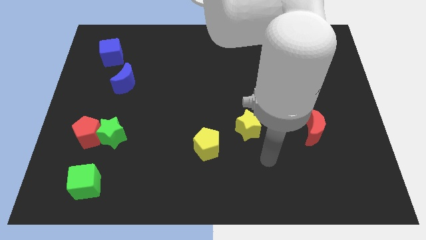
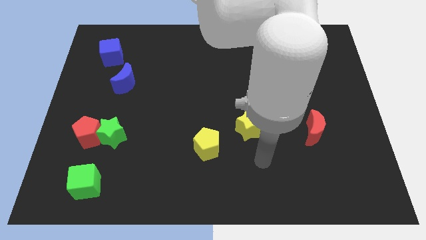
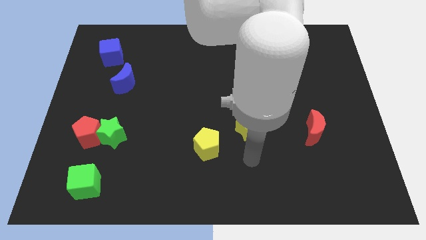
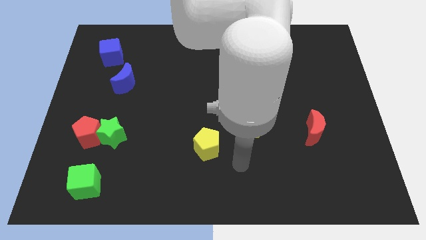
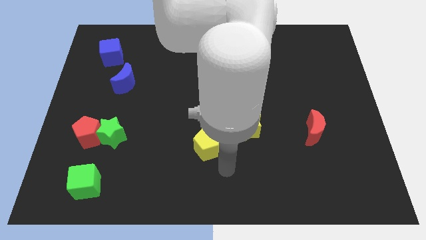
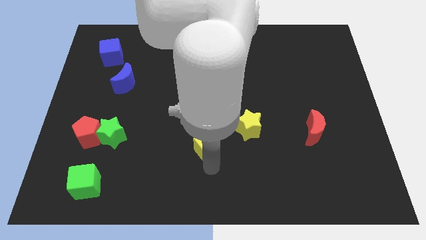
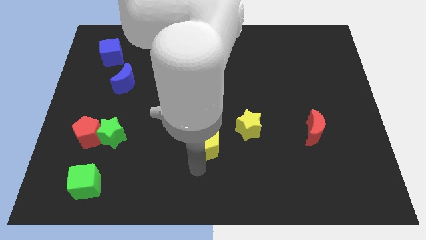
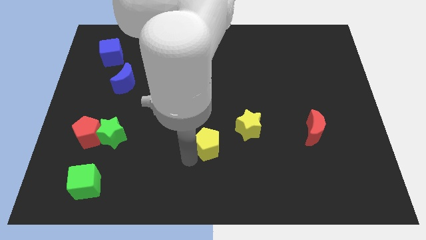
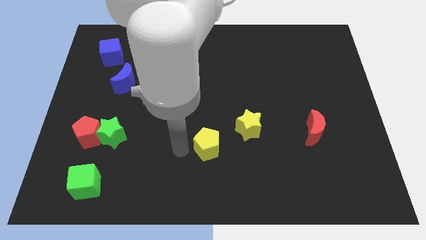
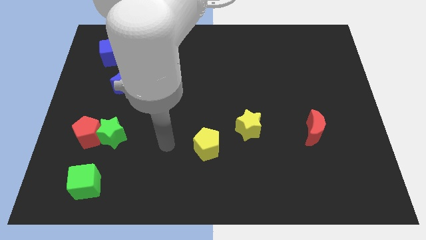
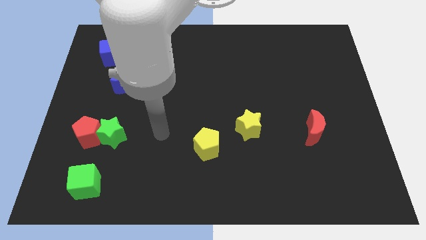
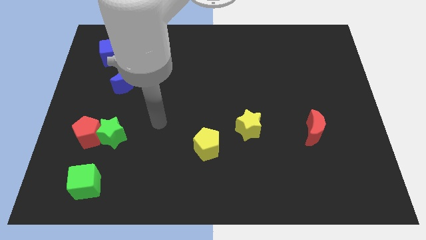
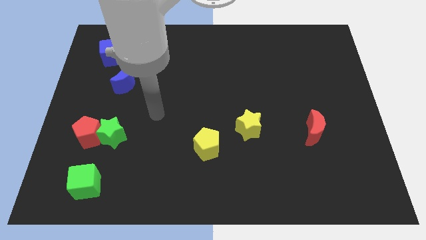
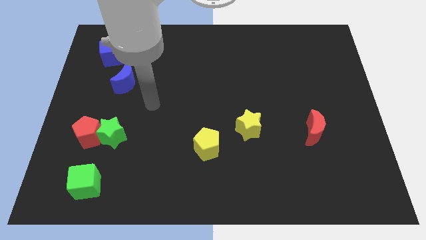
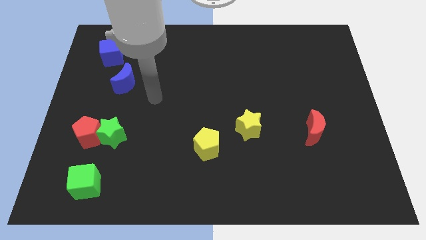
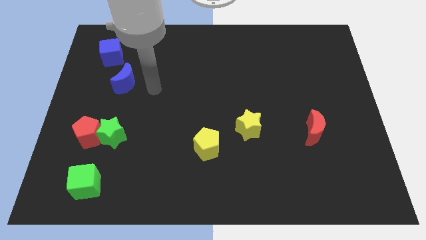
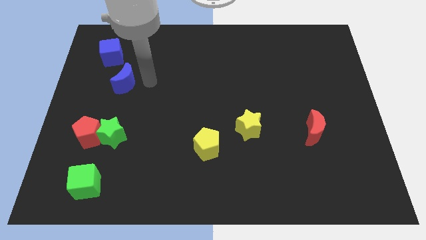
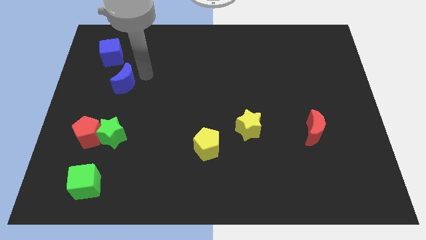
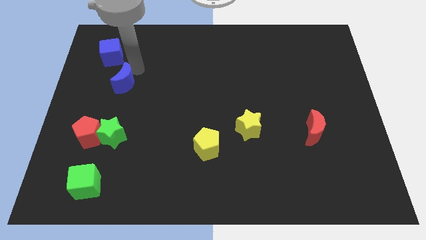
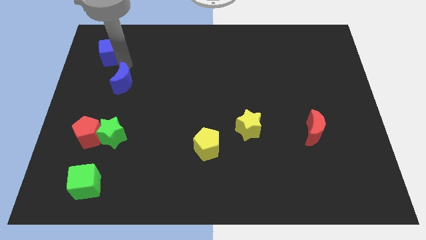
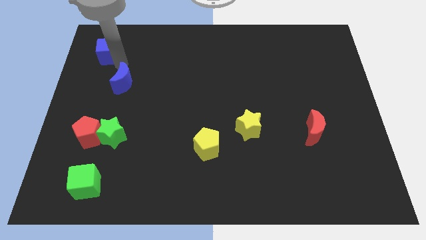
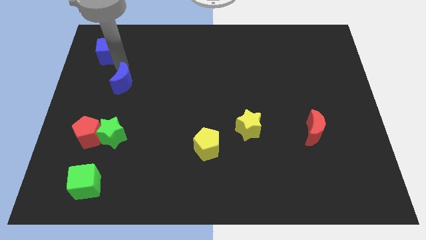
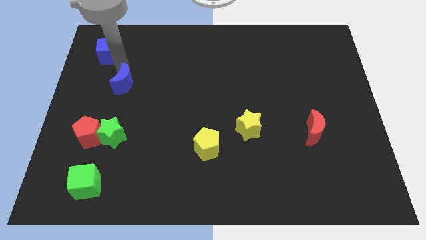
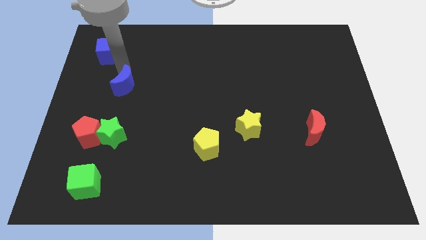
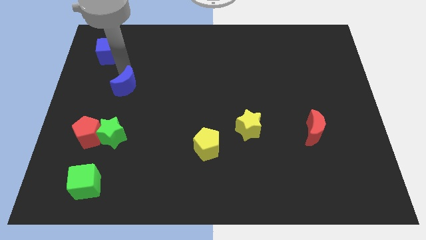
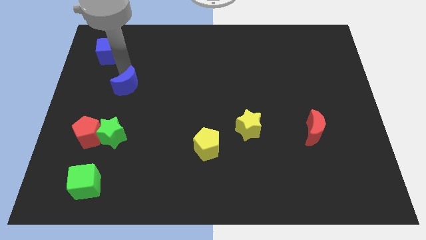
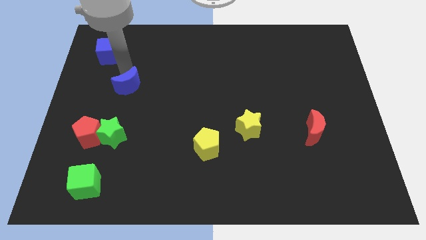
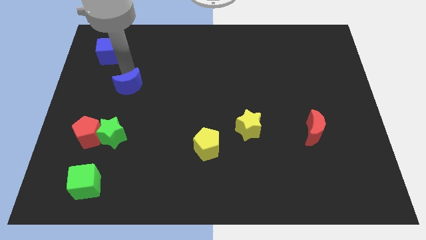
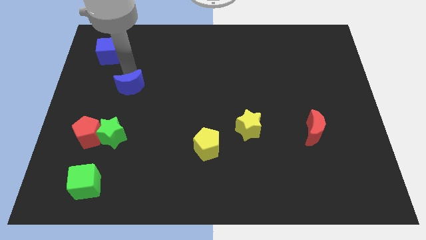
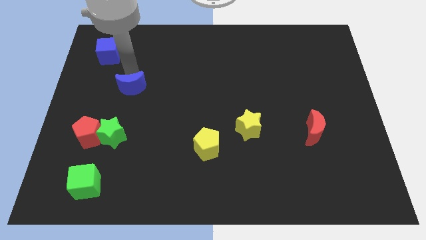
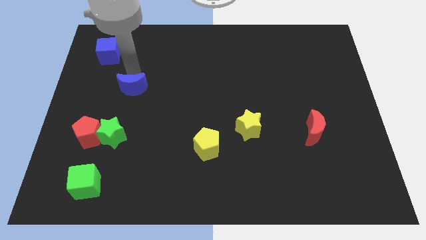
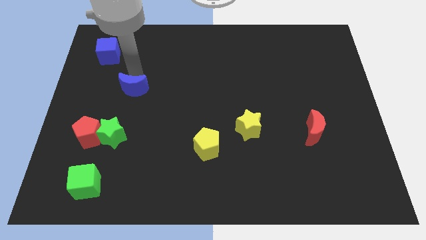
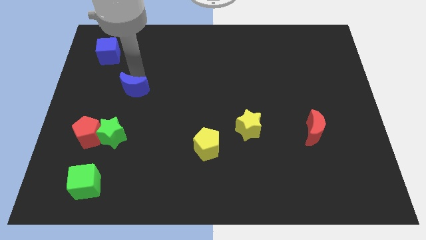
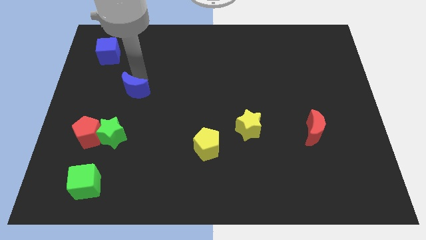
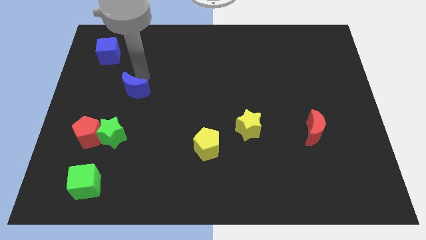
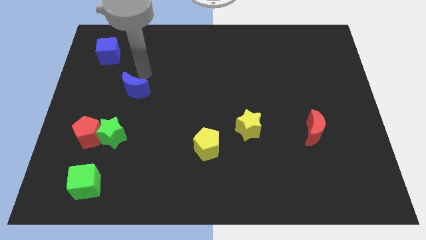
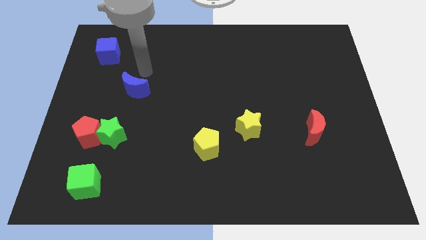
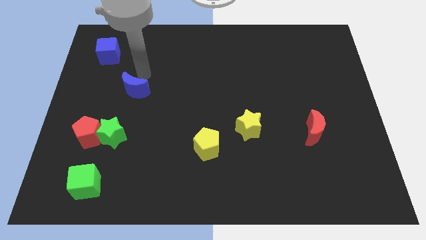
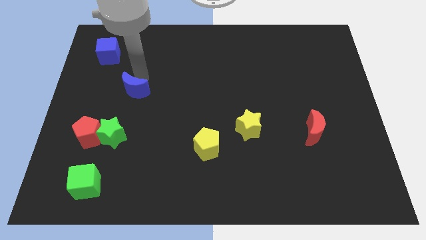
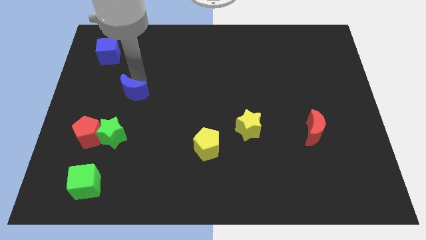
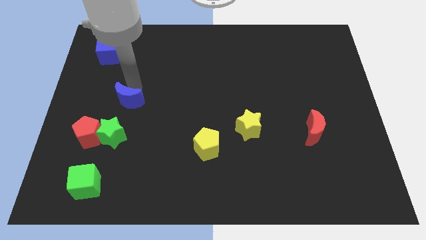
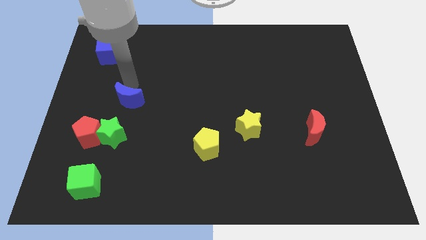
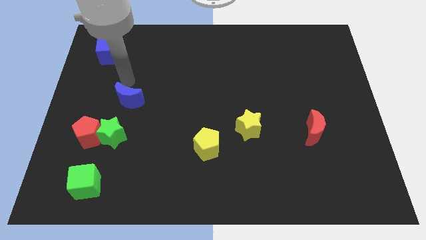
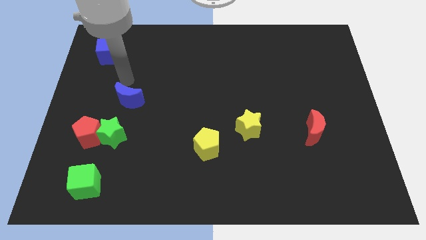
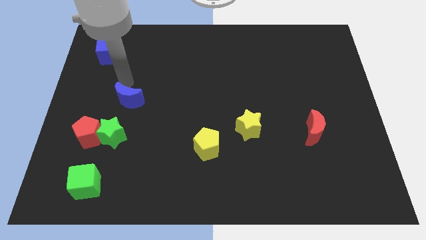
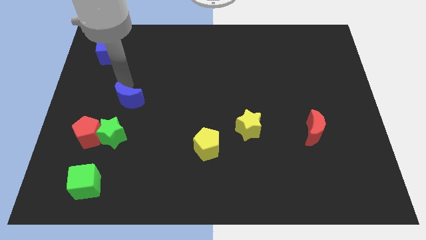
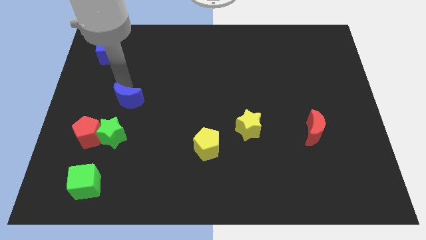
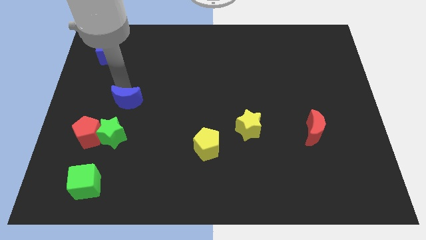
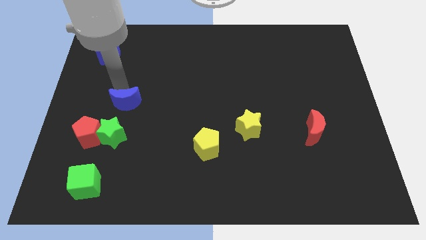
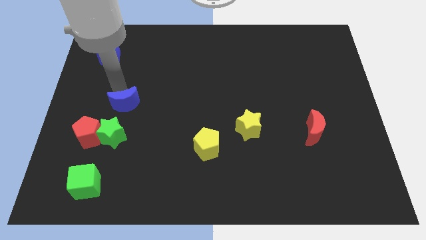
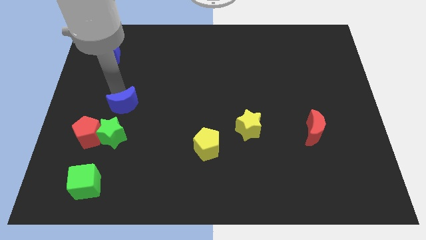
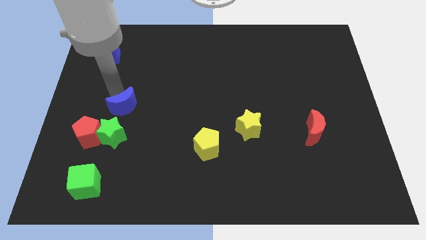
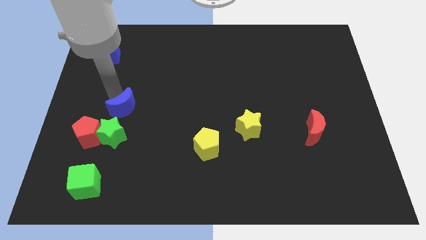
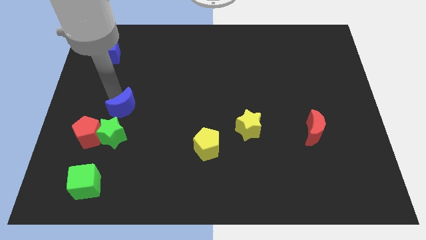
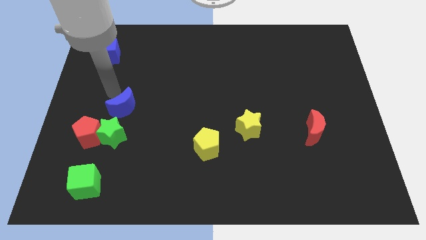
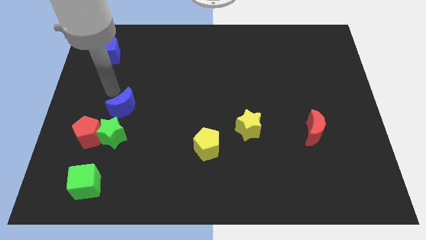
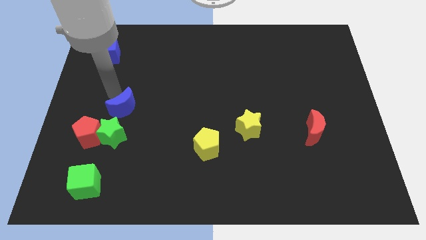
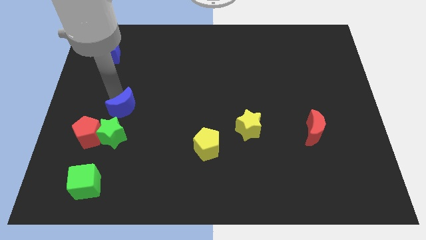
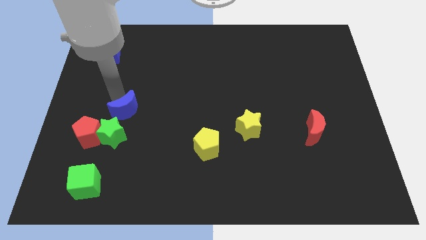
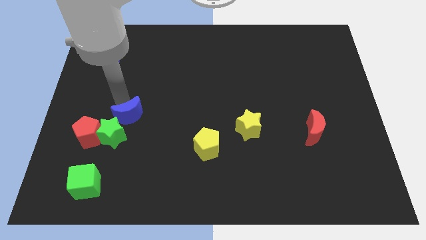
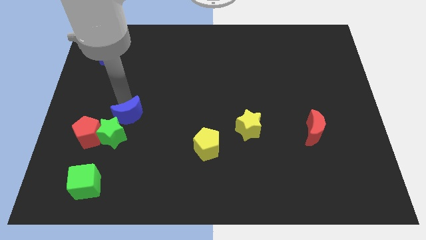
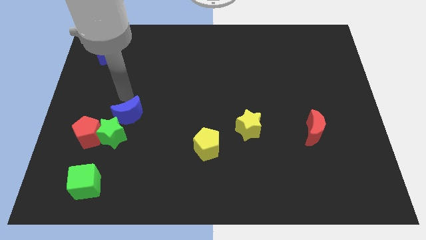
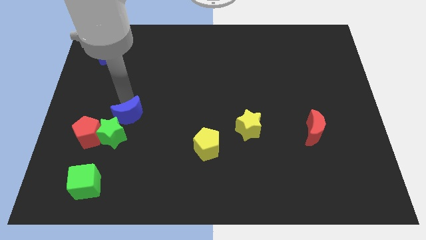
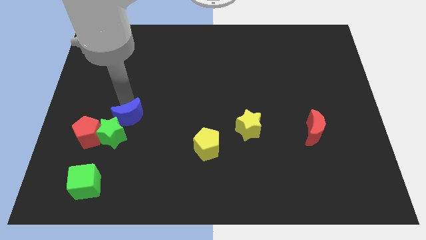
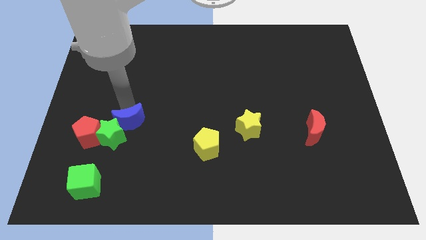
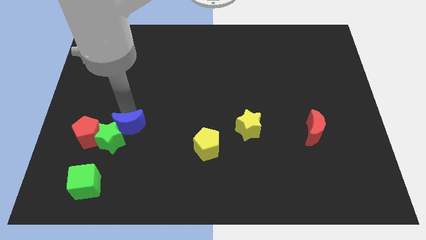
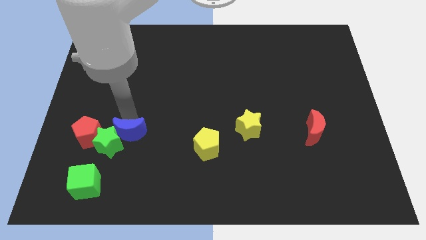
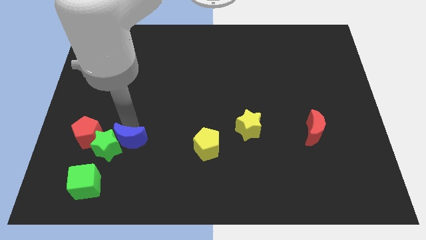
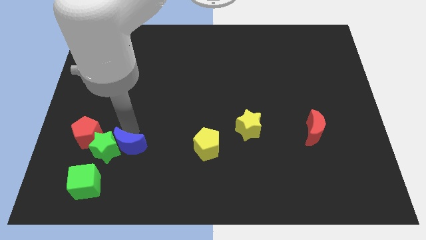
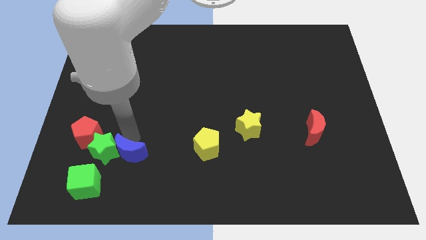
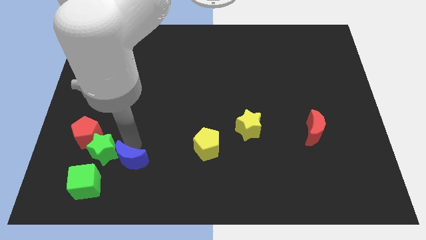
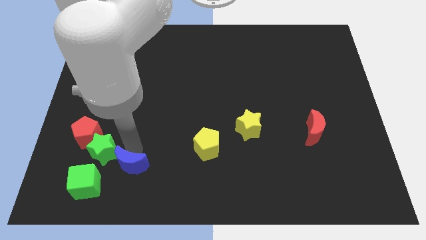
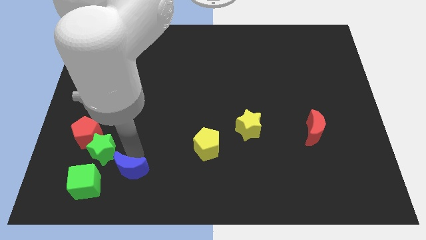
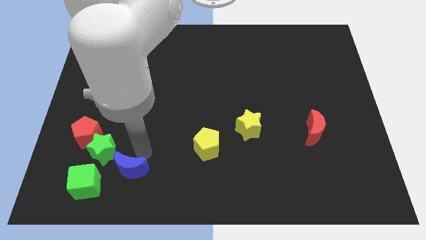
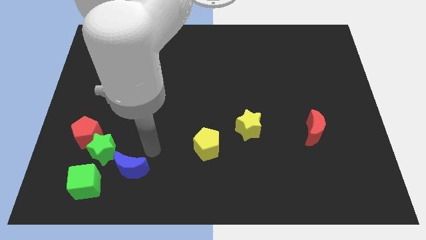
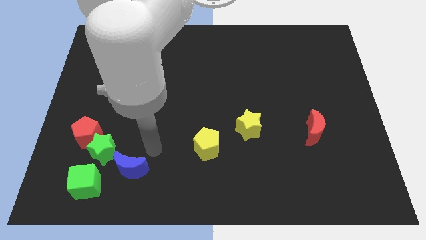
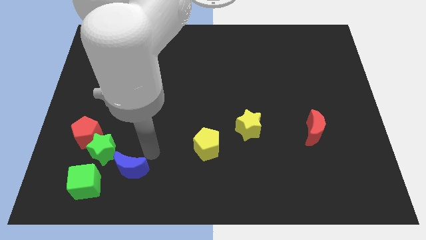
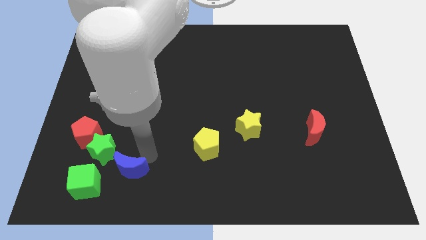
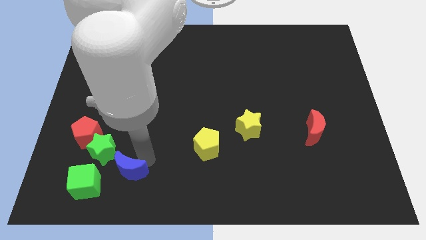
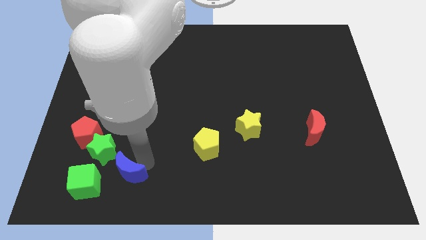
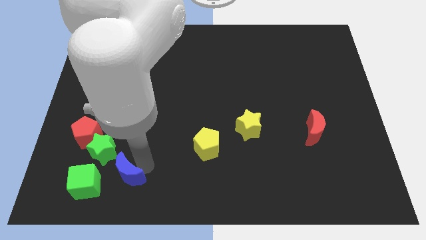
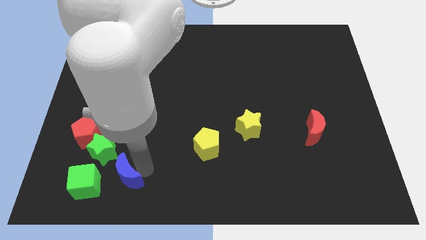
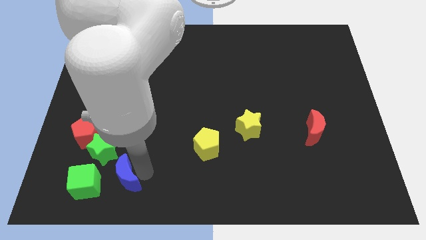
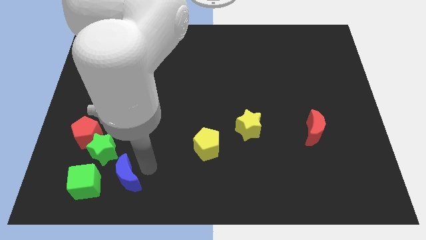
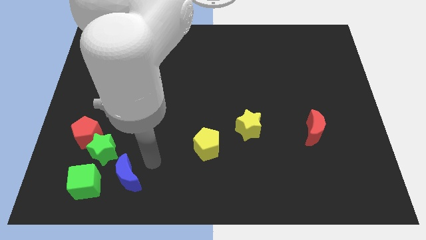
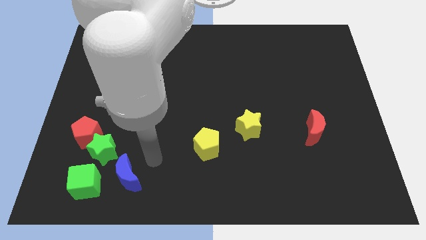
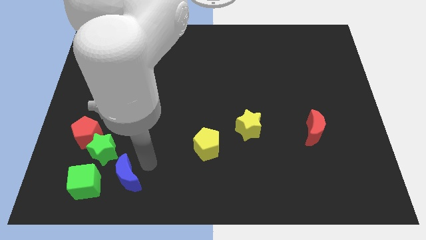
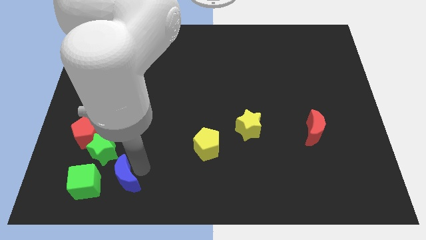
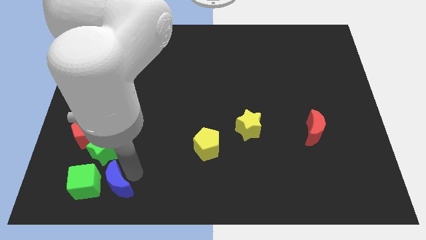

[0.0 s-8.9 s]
move the blue moon below the green star
